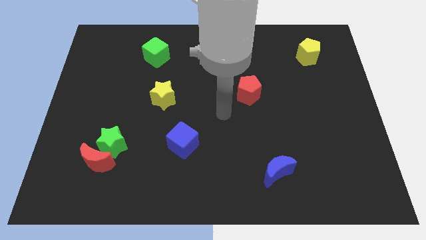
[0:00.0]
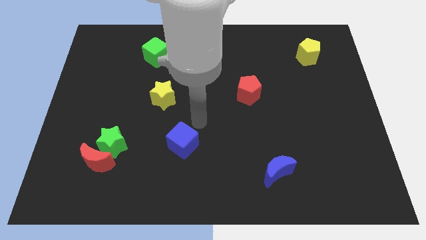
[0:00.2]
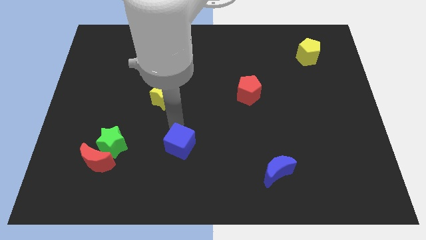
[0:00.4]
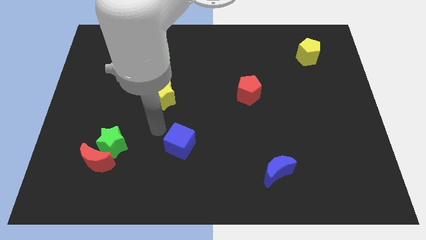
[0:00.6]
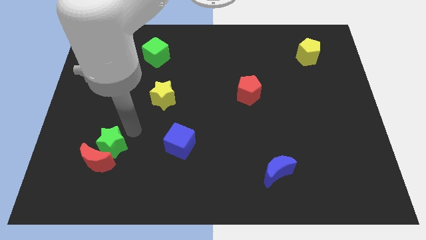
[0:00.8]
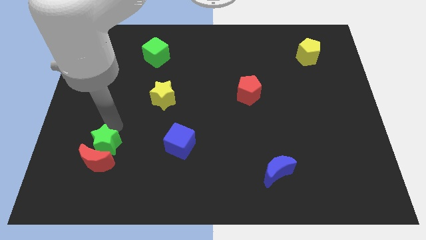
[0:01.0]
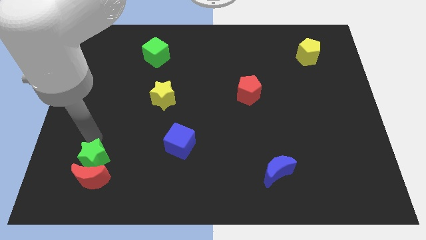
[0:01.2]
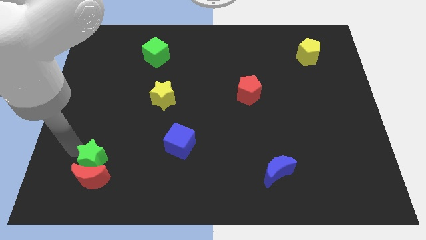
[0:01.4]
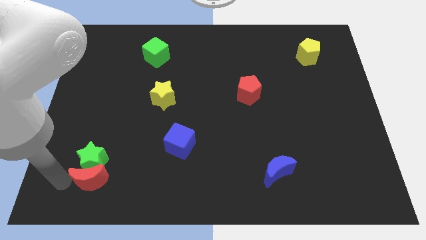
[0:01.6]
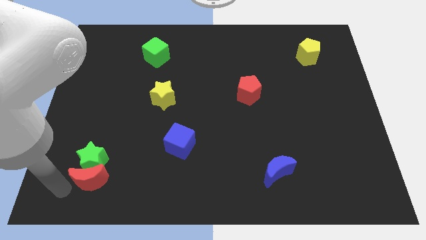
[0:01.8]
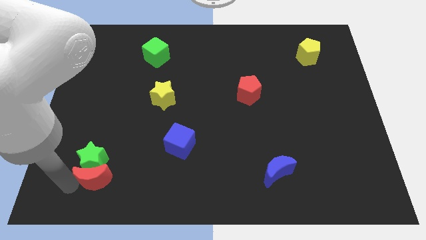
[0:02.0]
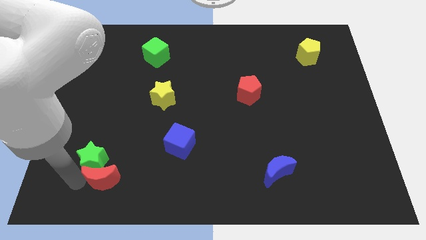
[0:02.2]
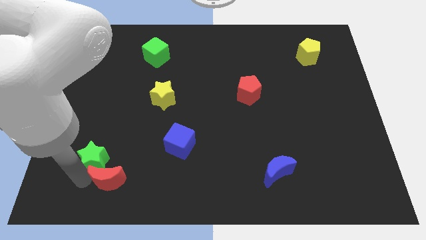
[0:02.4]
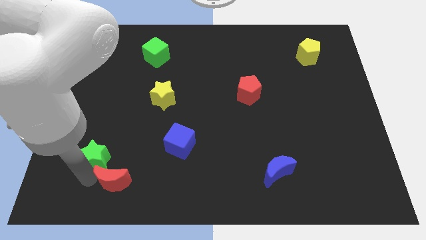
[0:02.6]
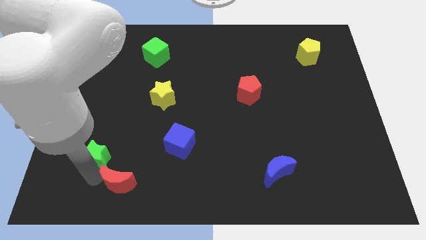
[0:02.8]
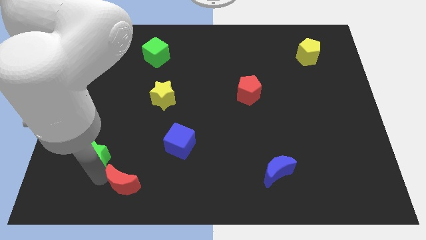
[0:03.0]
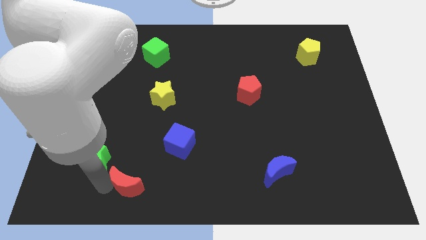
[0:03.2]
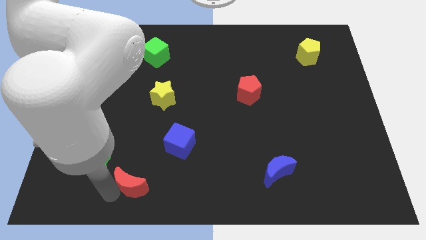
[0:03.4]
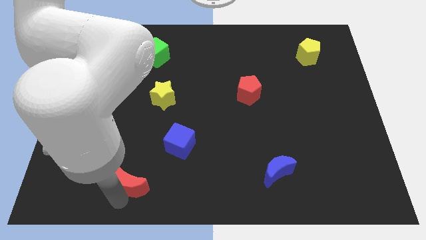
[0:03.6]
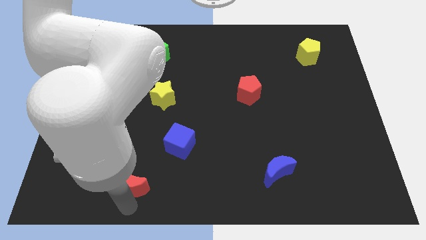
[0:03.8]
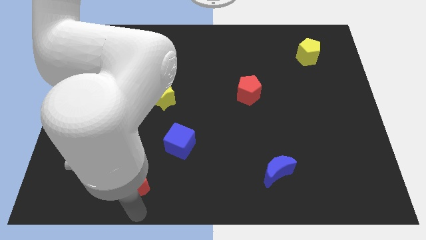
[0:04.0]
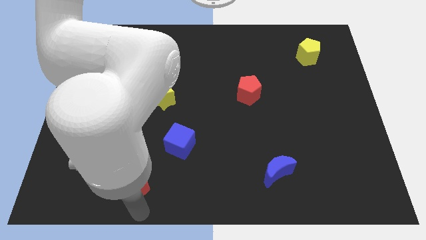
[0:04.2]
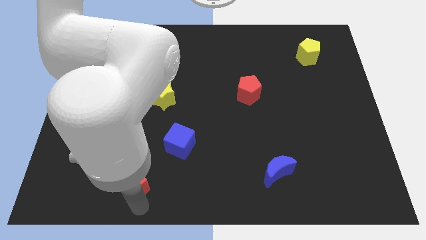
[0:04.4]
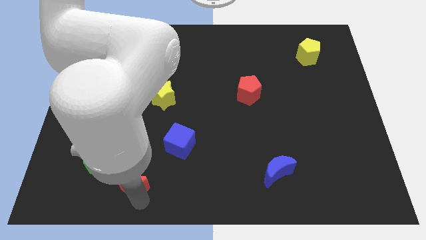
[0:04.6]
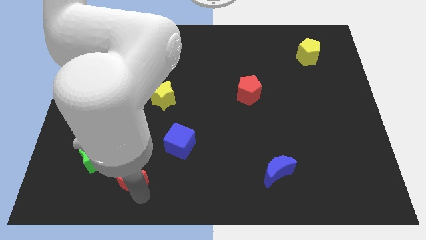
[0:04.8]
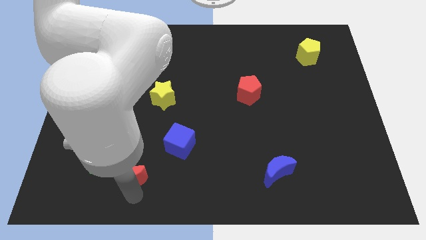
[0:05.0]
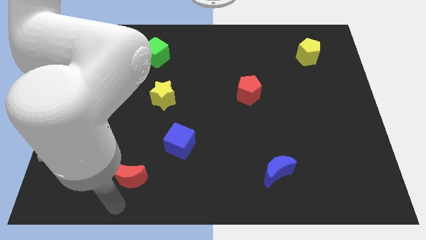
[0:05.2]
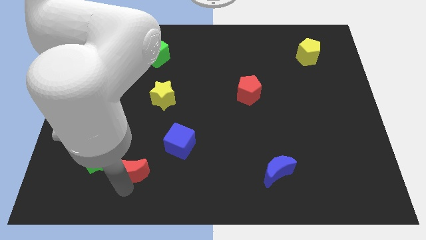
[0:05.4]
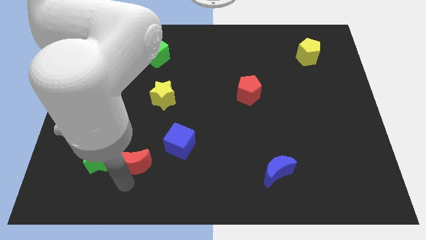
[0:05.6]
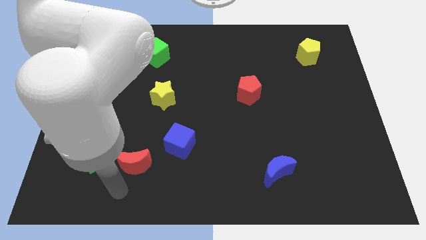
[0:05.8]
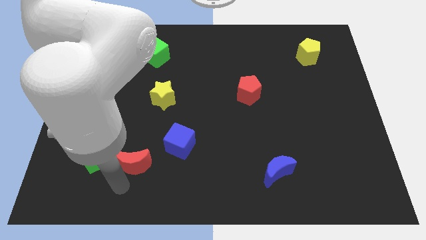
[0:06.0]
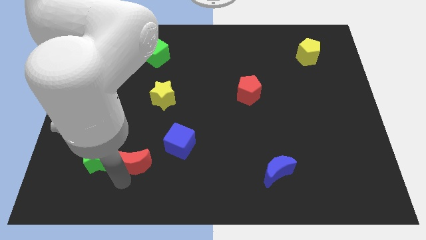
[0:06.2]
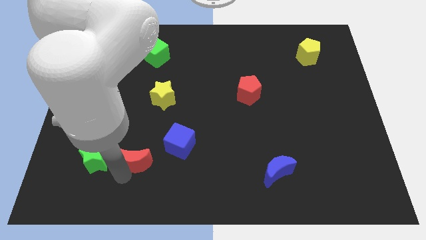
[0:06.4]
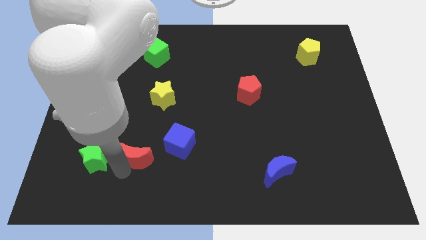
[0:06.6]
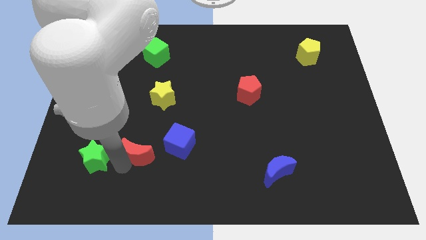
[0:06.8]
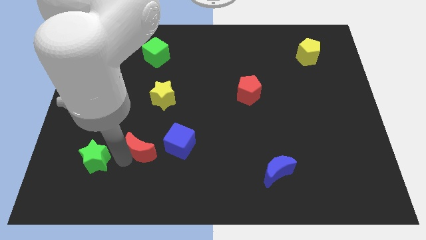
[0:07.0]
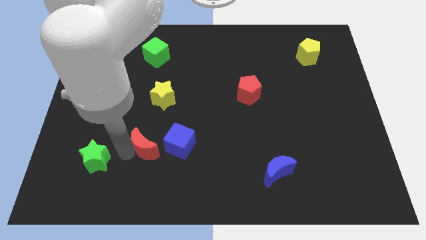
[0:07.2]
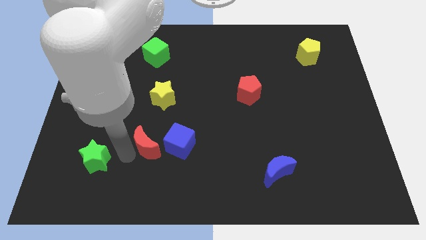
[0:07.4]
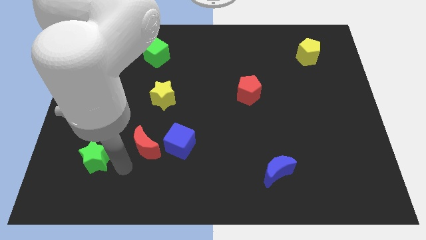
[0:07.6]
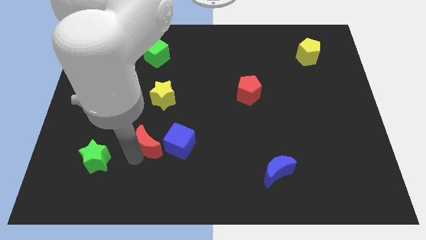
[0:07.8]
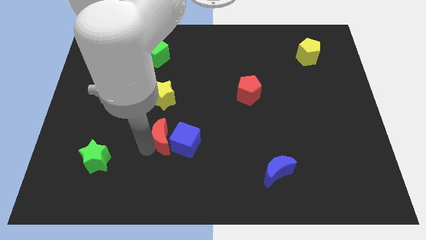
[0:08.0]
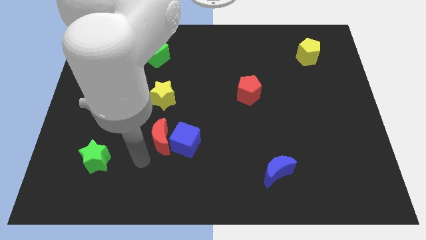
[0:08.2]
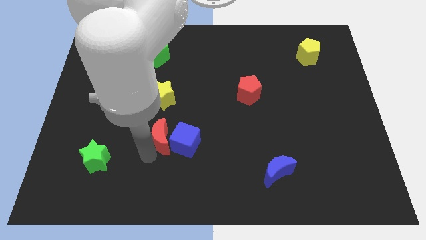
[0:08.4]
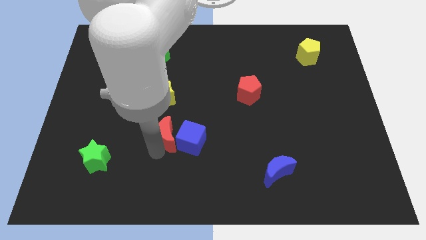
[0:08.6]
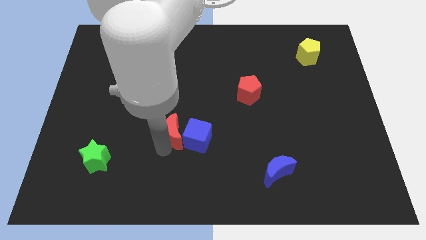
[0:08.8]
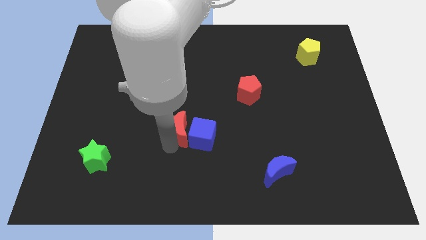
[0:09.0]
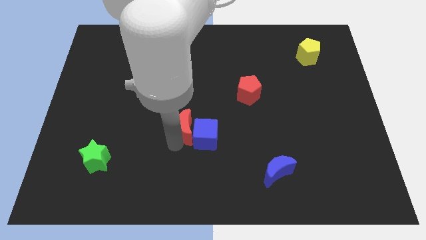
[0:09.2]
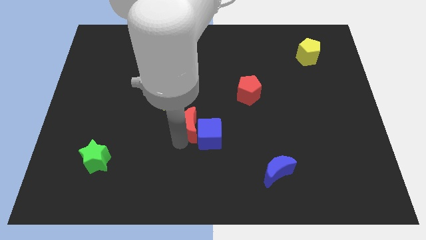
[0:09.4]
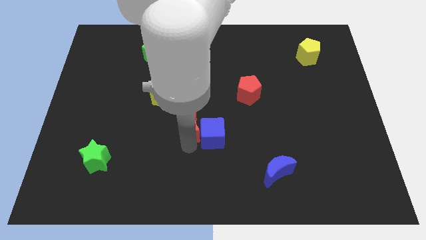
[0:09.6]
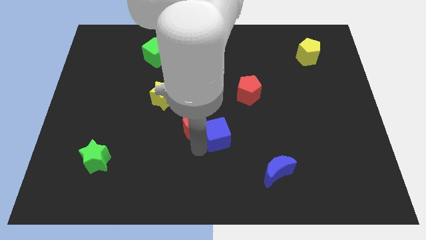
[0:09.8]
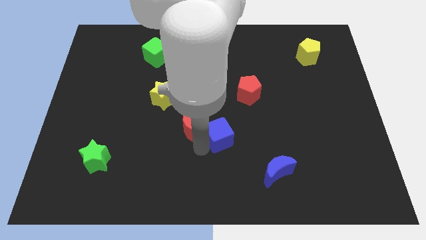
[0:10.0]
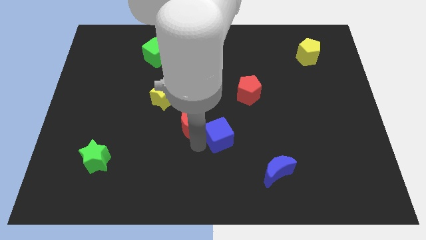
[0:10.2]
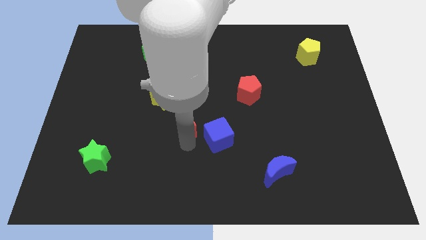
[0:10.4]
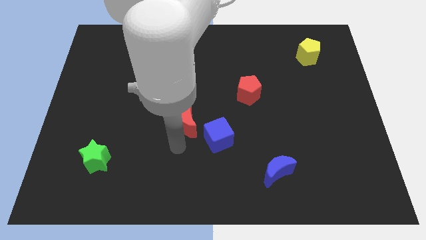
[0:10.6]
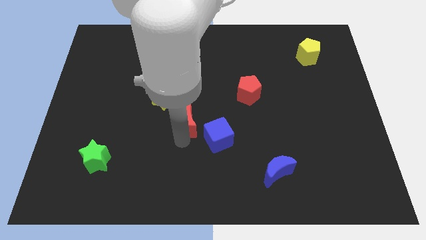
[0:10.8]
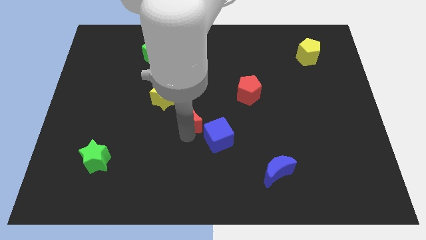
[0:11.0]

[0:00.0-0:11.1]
move the red moon up and right diagonally

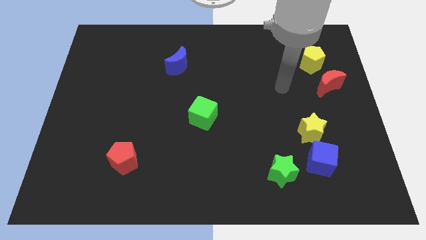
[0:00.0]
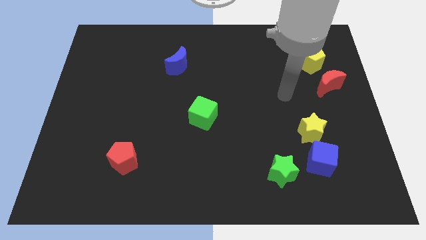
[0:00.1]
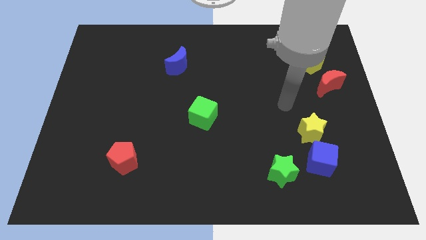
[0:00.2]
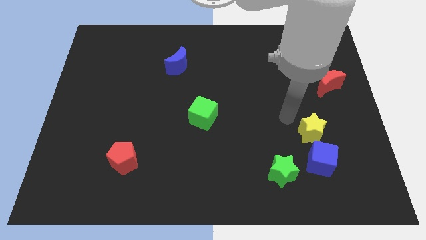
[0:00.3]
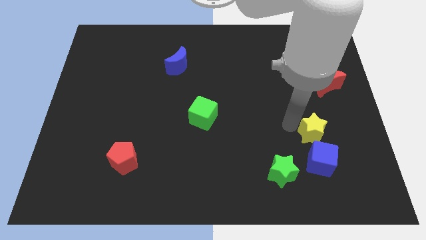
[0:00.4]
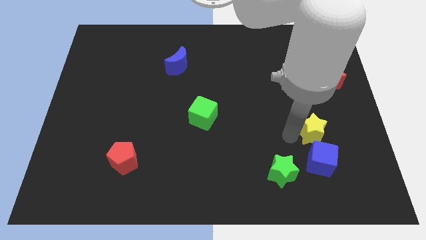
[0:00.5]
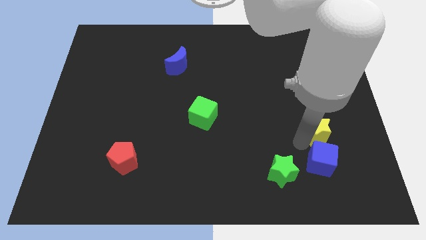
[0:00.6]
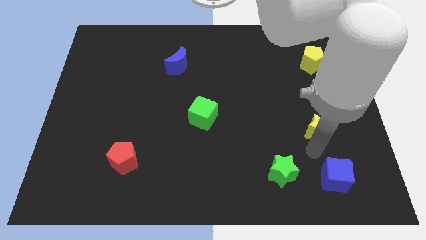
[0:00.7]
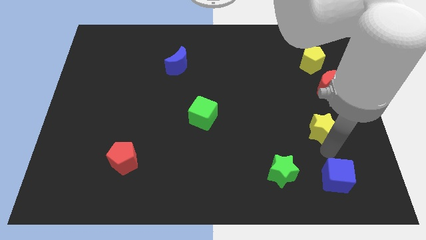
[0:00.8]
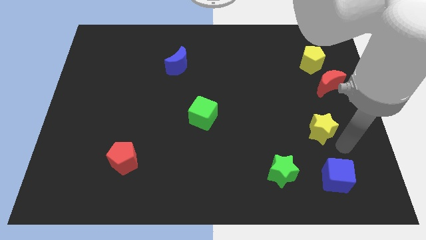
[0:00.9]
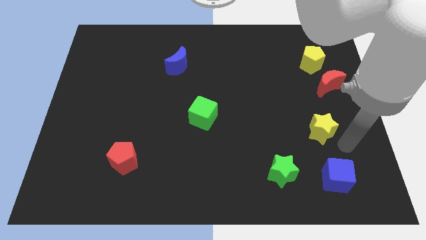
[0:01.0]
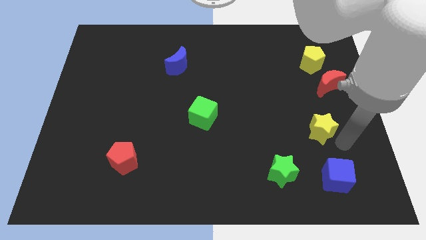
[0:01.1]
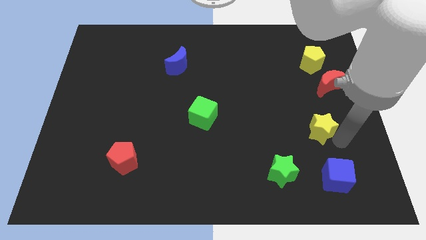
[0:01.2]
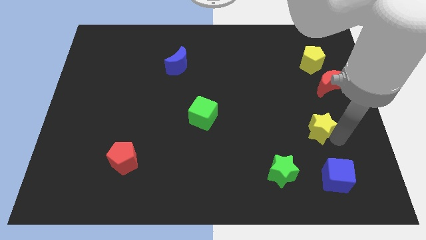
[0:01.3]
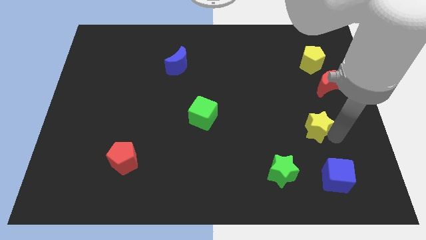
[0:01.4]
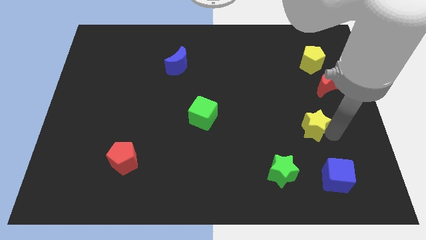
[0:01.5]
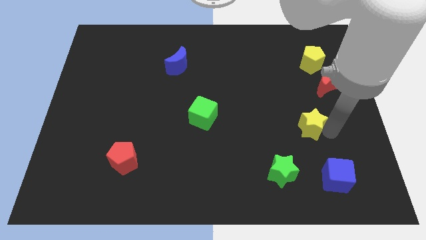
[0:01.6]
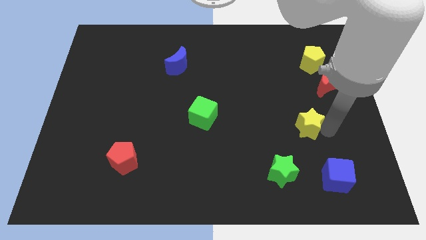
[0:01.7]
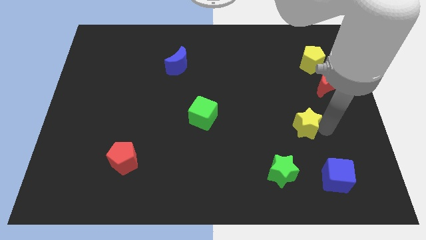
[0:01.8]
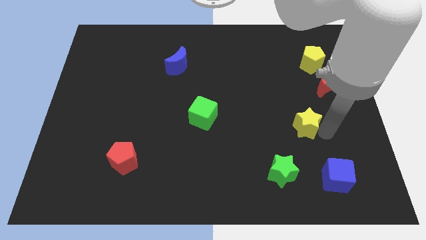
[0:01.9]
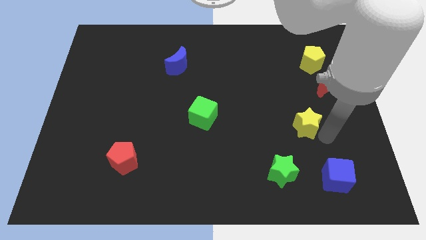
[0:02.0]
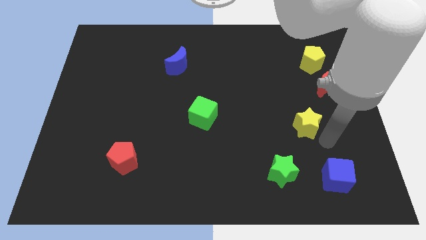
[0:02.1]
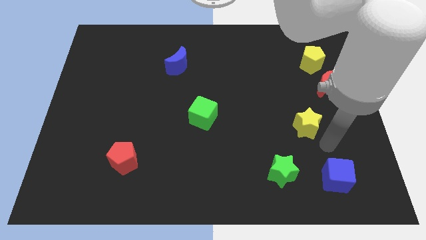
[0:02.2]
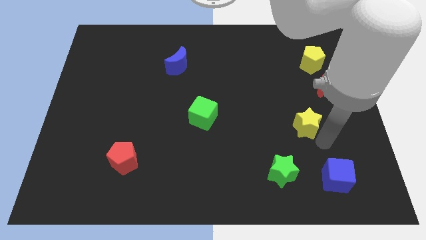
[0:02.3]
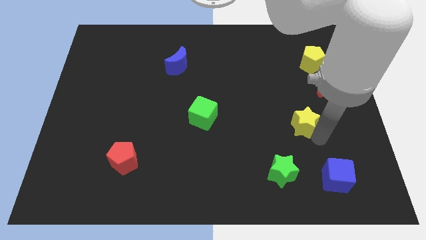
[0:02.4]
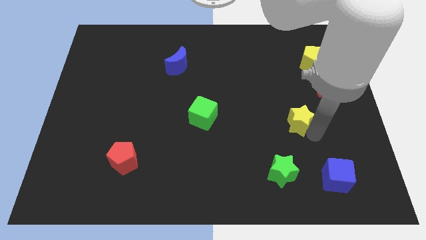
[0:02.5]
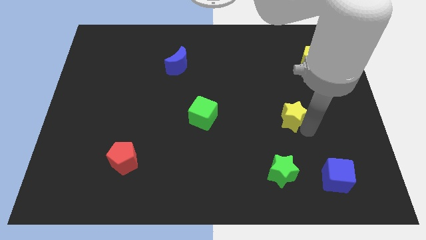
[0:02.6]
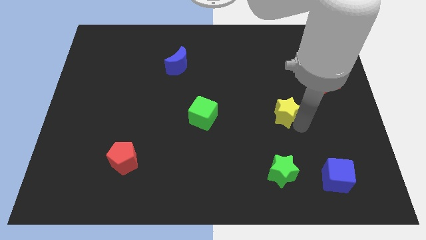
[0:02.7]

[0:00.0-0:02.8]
slightly push the yellow star up and to the left diagonally
